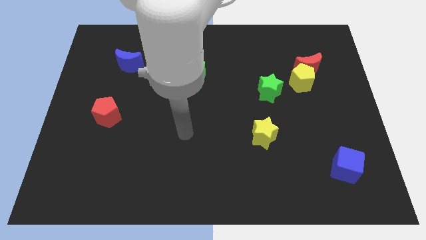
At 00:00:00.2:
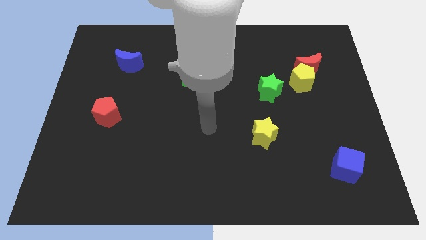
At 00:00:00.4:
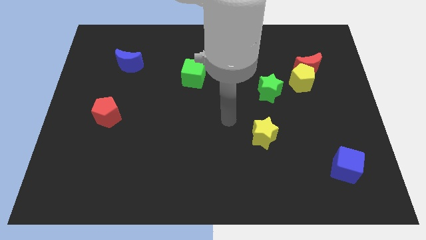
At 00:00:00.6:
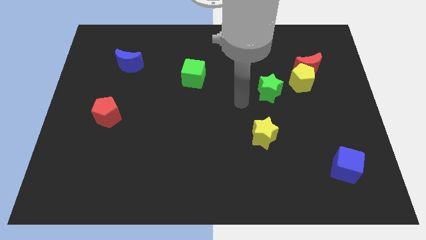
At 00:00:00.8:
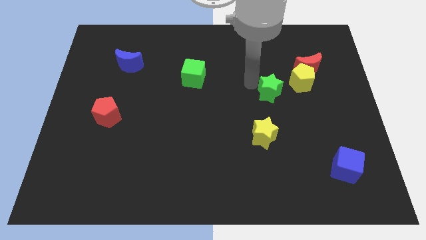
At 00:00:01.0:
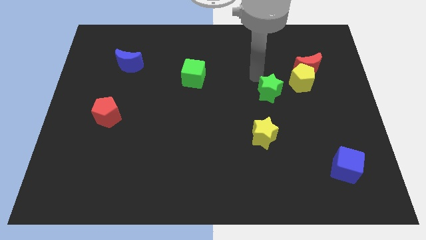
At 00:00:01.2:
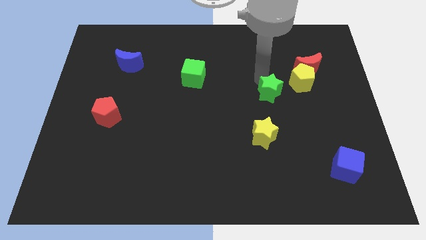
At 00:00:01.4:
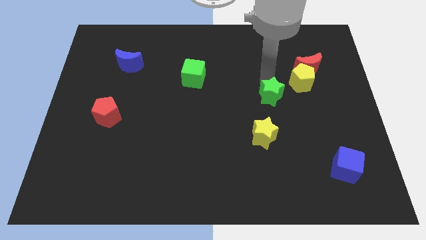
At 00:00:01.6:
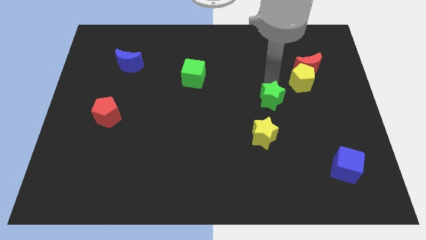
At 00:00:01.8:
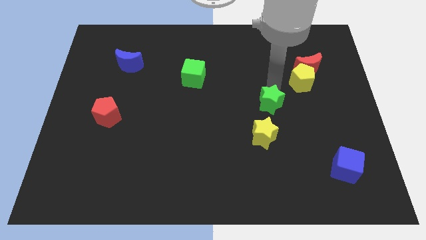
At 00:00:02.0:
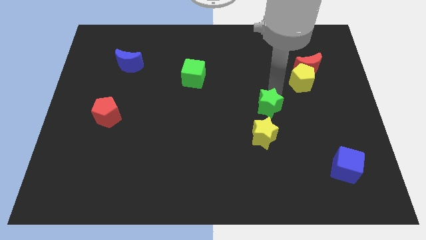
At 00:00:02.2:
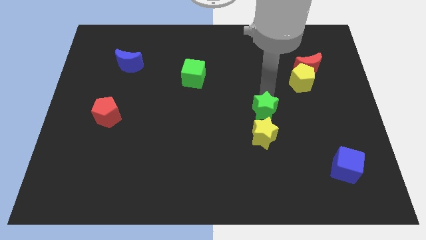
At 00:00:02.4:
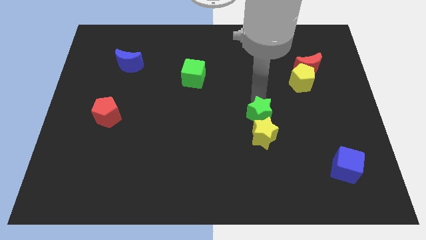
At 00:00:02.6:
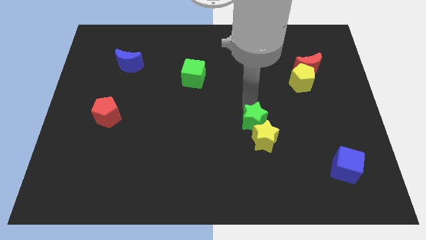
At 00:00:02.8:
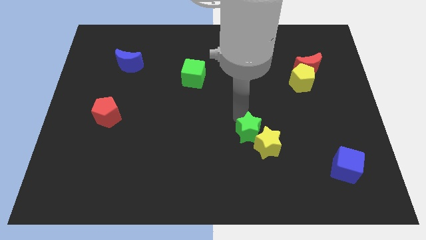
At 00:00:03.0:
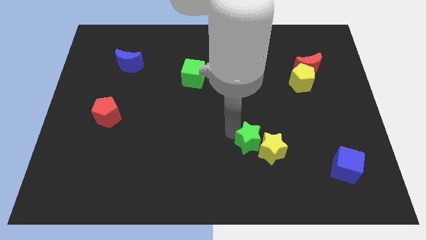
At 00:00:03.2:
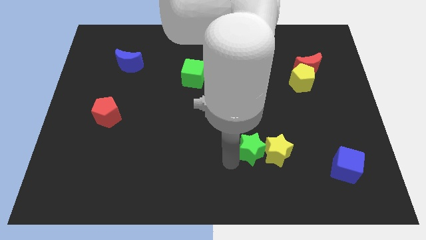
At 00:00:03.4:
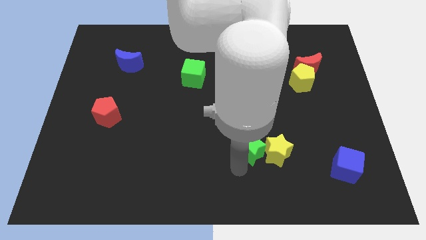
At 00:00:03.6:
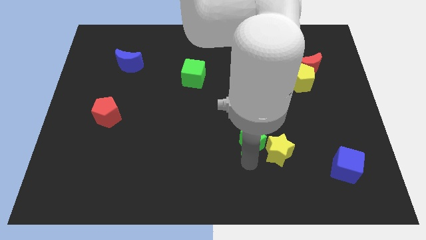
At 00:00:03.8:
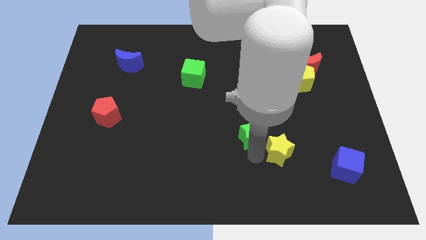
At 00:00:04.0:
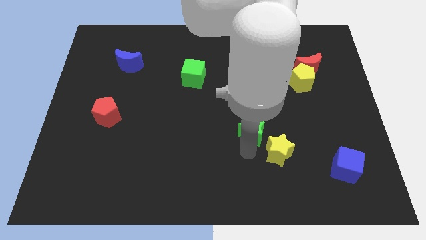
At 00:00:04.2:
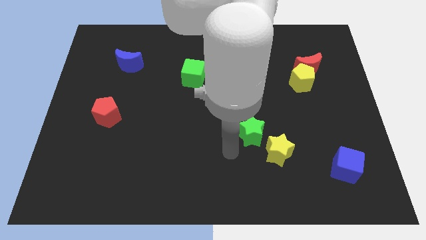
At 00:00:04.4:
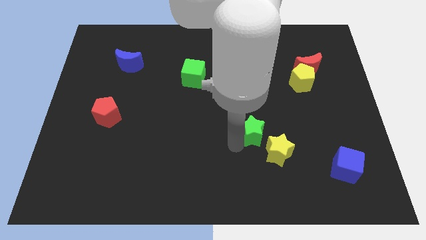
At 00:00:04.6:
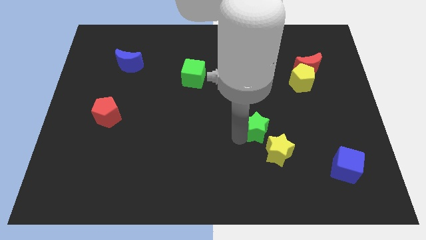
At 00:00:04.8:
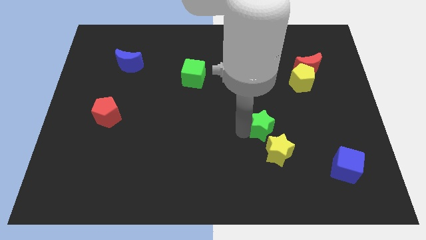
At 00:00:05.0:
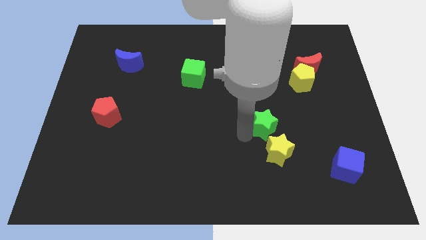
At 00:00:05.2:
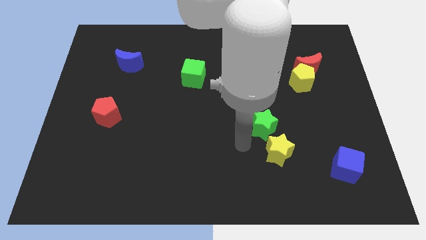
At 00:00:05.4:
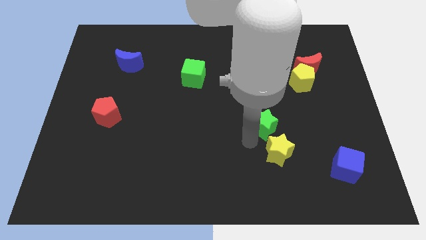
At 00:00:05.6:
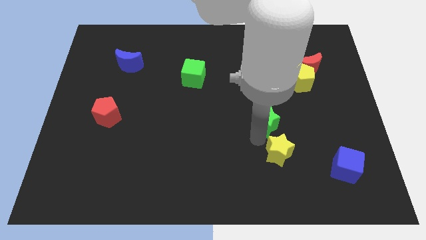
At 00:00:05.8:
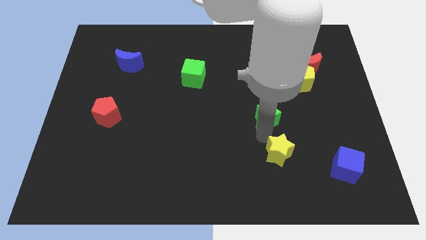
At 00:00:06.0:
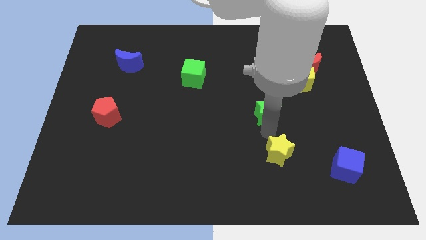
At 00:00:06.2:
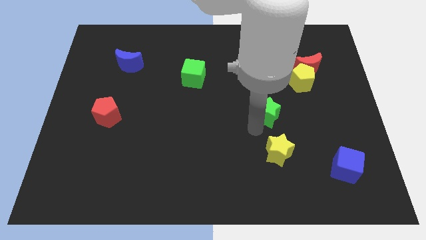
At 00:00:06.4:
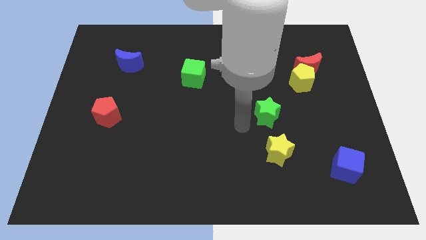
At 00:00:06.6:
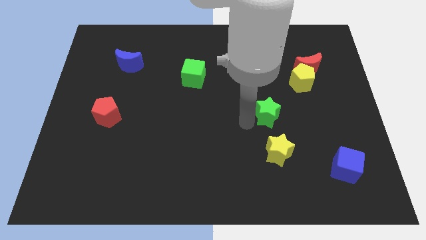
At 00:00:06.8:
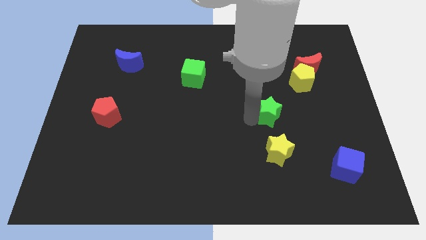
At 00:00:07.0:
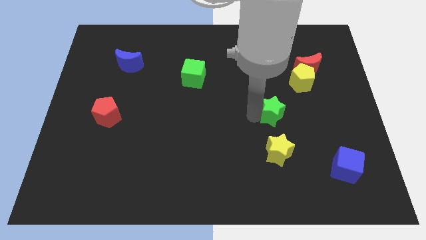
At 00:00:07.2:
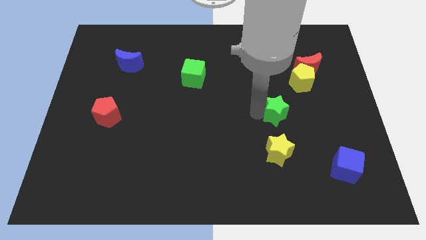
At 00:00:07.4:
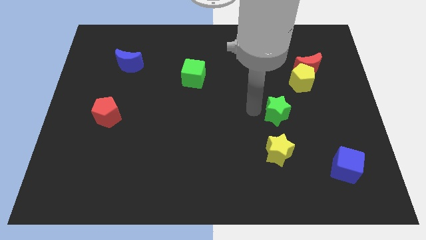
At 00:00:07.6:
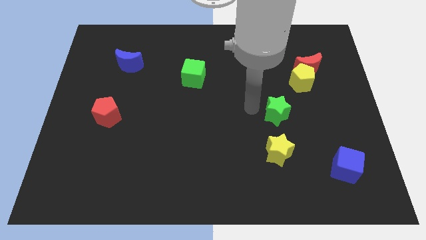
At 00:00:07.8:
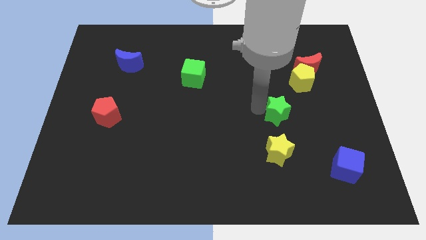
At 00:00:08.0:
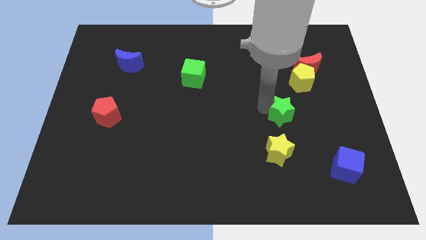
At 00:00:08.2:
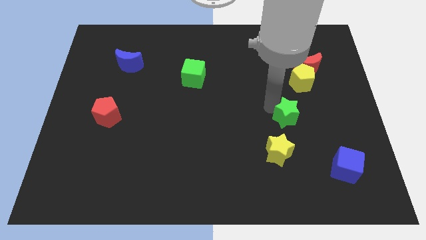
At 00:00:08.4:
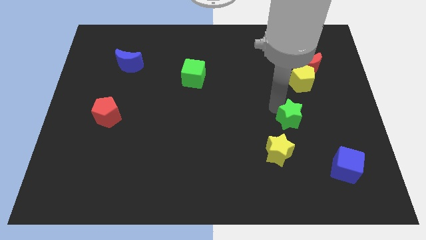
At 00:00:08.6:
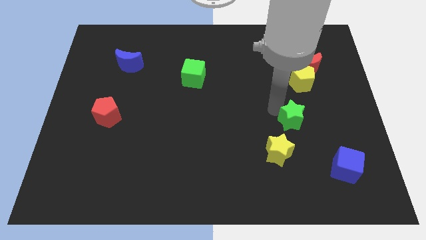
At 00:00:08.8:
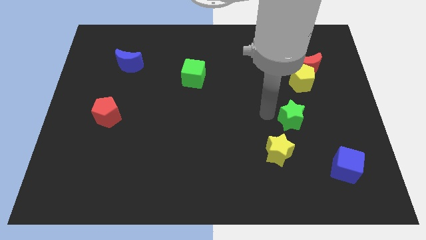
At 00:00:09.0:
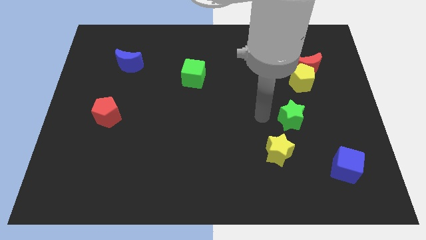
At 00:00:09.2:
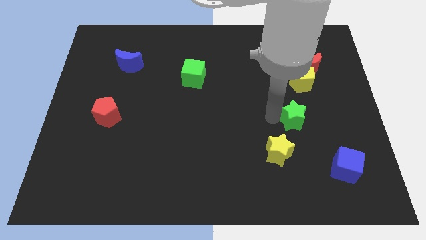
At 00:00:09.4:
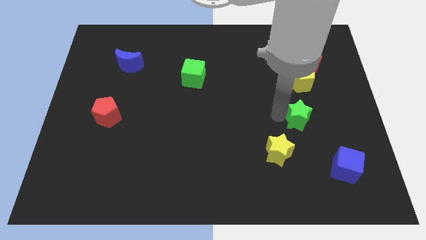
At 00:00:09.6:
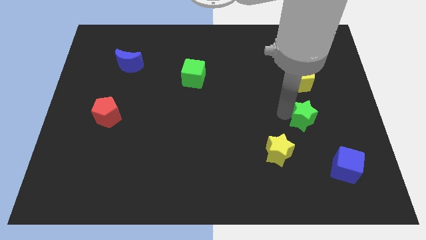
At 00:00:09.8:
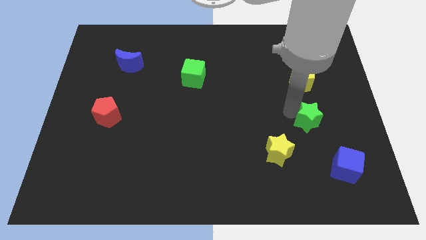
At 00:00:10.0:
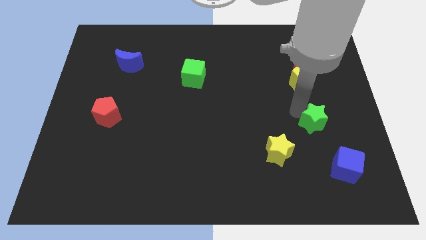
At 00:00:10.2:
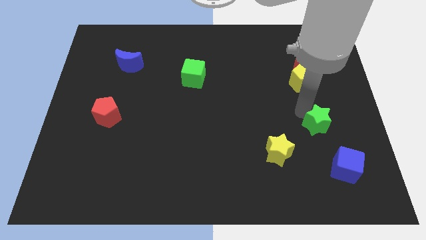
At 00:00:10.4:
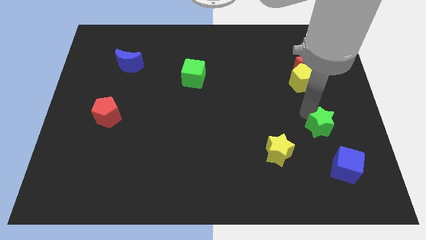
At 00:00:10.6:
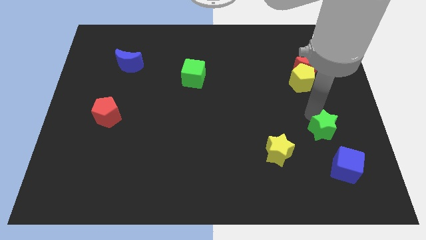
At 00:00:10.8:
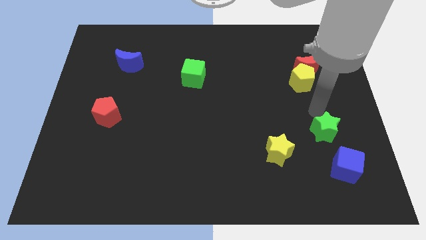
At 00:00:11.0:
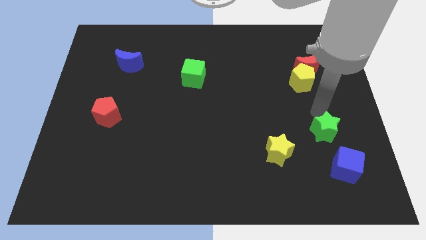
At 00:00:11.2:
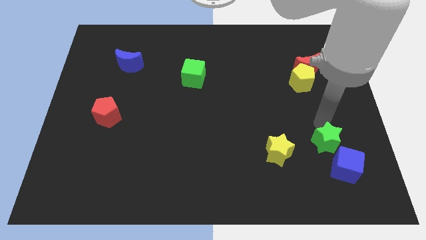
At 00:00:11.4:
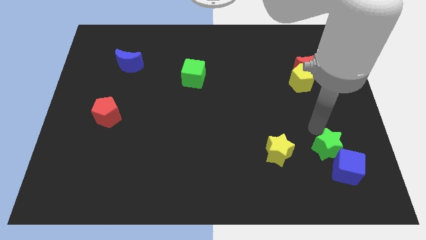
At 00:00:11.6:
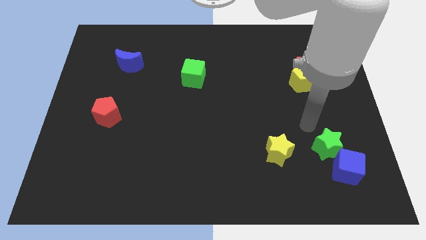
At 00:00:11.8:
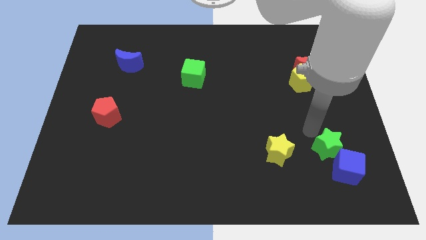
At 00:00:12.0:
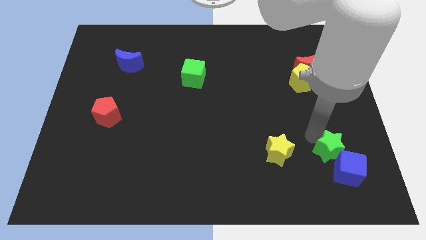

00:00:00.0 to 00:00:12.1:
move the green star towards the blue cube

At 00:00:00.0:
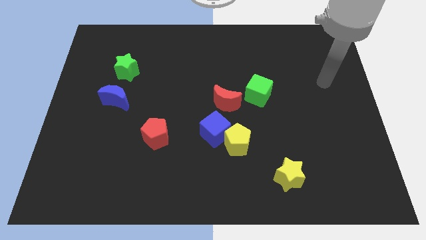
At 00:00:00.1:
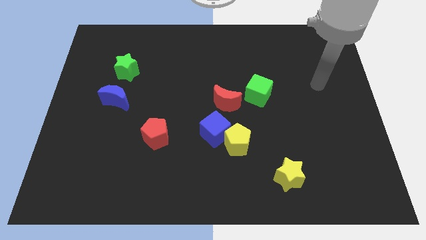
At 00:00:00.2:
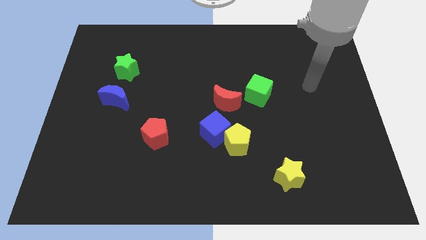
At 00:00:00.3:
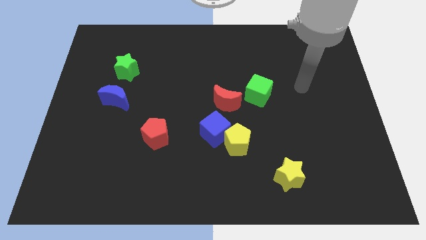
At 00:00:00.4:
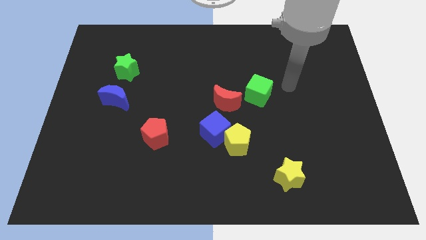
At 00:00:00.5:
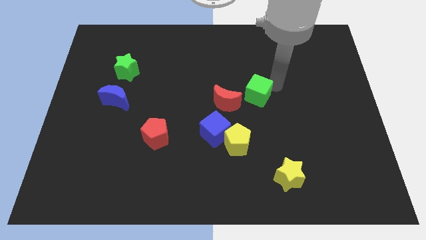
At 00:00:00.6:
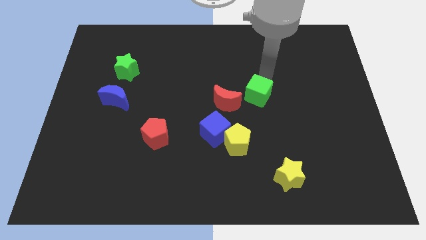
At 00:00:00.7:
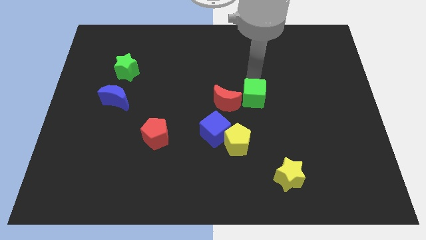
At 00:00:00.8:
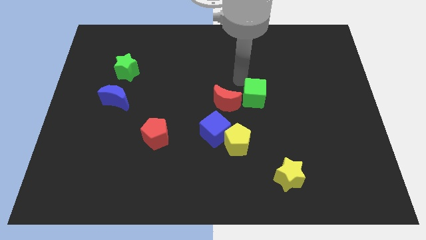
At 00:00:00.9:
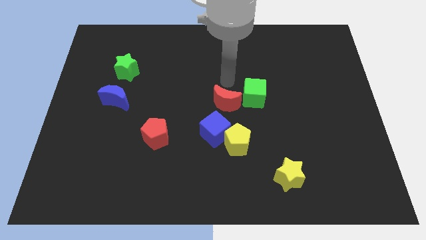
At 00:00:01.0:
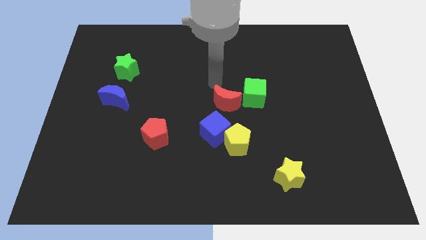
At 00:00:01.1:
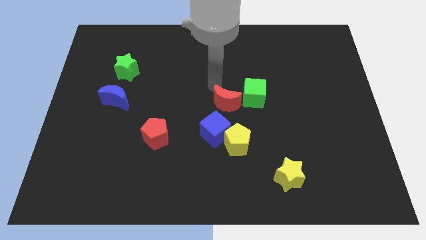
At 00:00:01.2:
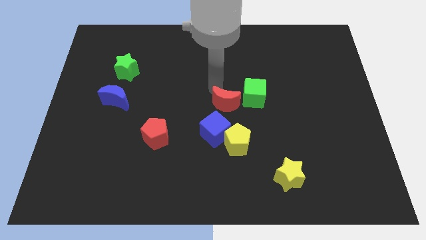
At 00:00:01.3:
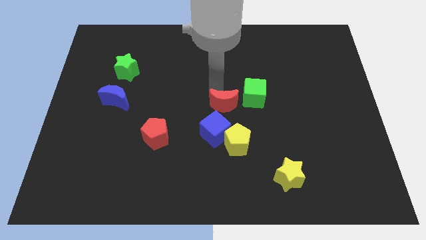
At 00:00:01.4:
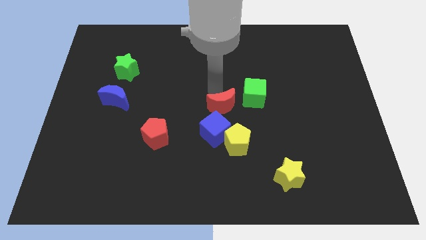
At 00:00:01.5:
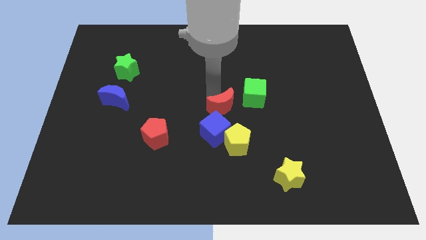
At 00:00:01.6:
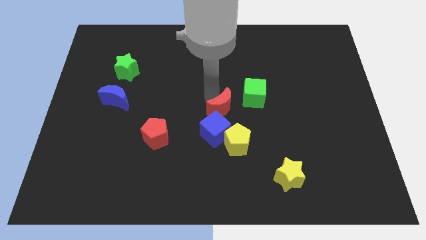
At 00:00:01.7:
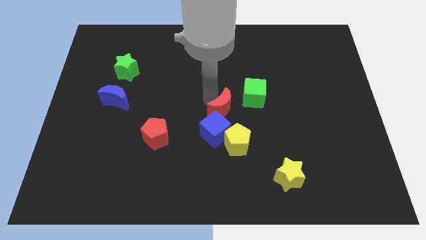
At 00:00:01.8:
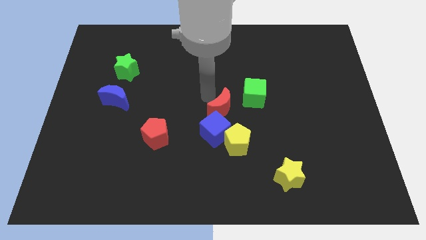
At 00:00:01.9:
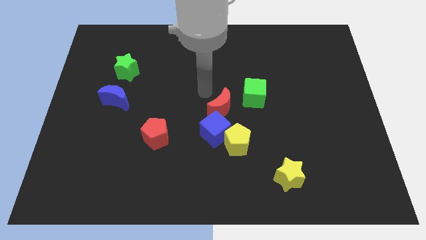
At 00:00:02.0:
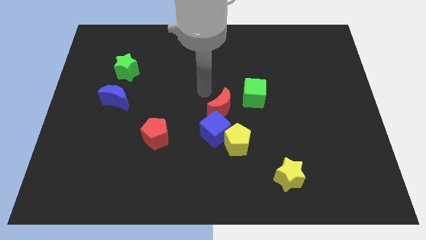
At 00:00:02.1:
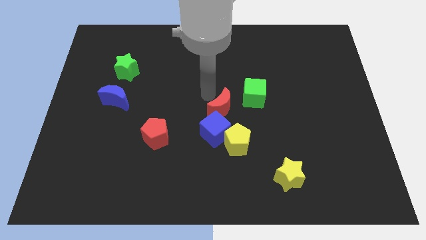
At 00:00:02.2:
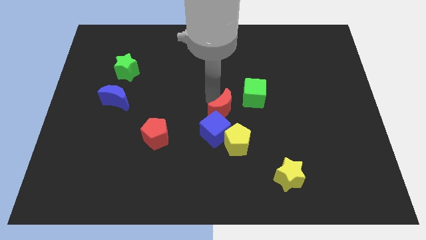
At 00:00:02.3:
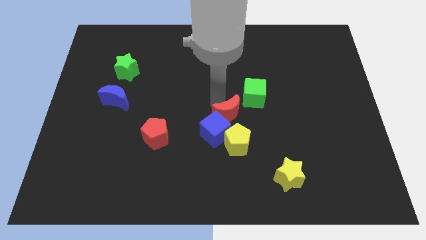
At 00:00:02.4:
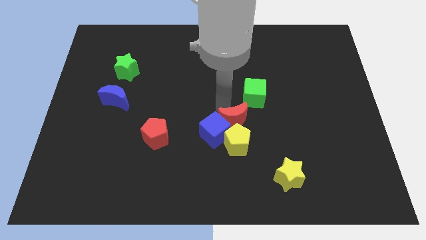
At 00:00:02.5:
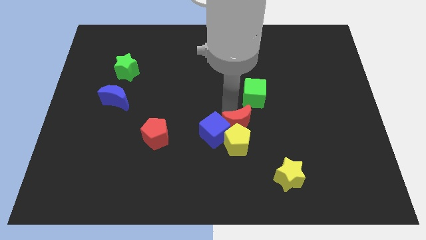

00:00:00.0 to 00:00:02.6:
put the red moon to the yellow pentagon
